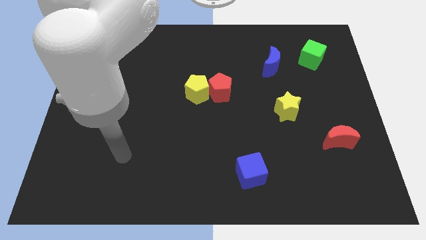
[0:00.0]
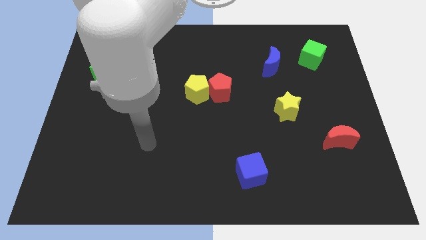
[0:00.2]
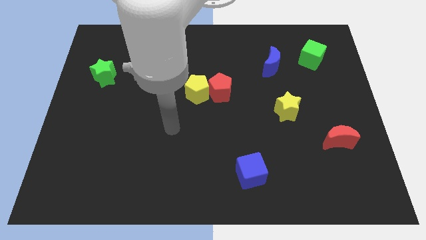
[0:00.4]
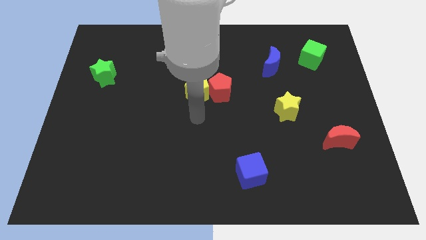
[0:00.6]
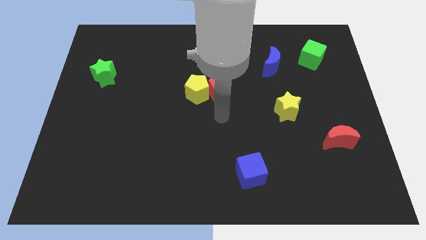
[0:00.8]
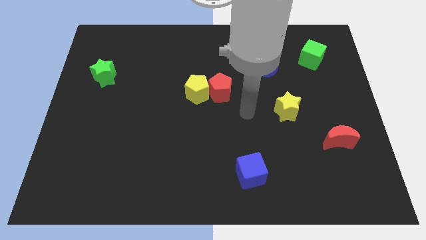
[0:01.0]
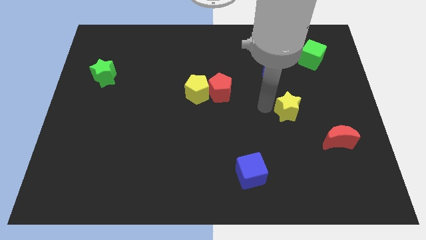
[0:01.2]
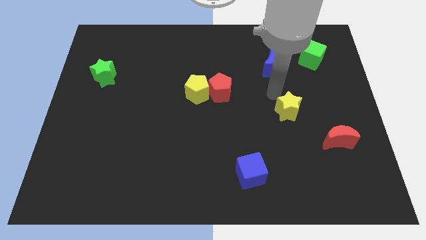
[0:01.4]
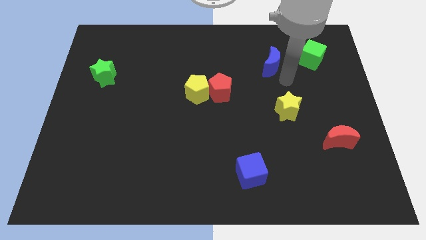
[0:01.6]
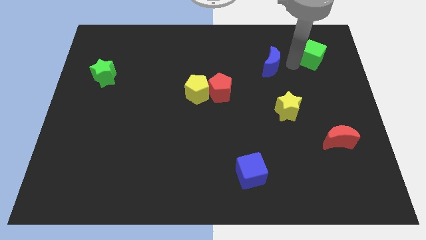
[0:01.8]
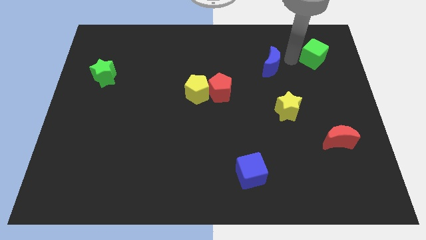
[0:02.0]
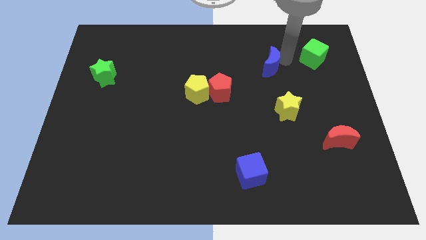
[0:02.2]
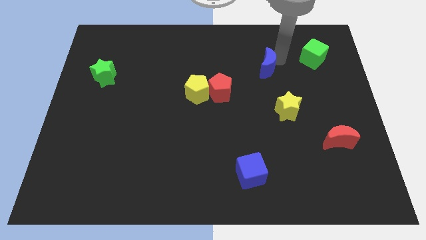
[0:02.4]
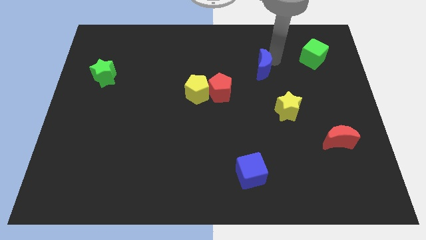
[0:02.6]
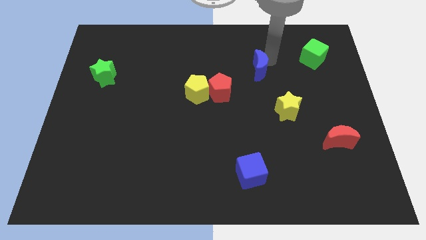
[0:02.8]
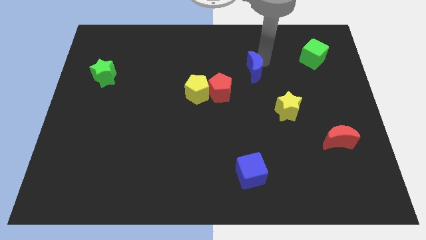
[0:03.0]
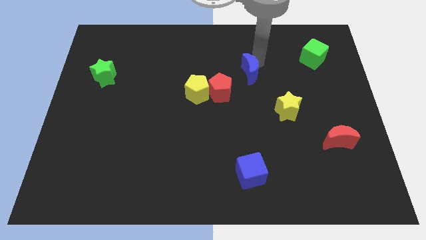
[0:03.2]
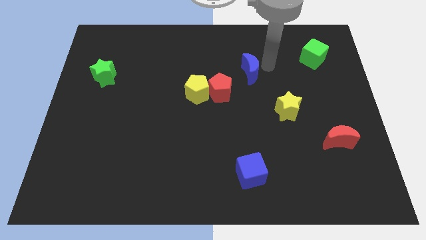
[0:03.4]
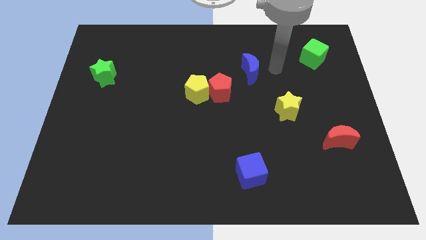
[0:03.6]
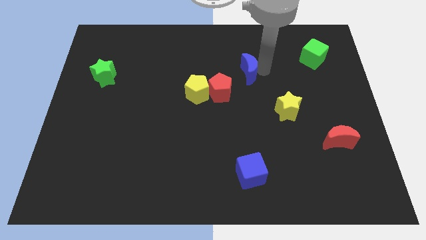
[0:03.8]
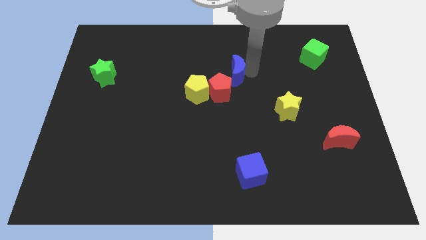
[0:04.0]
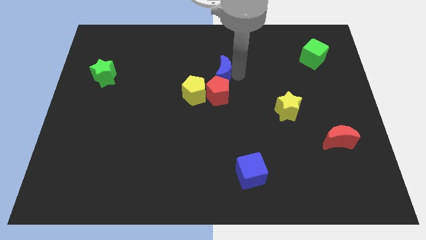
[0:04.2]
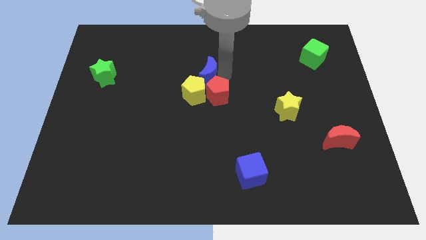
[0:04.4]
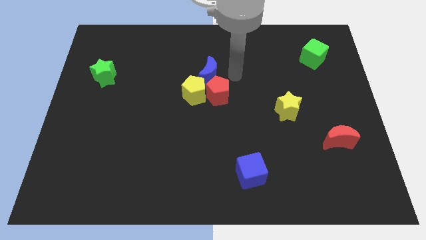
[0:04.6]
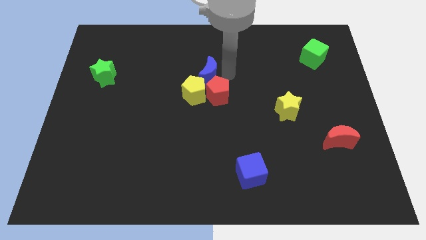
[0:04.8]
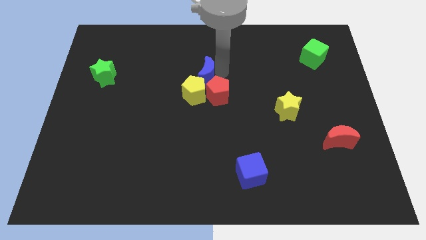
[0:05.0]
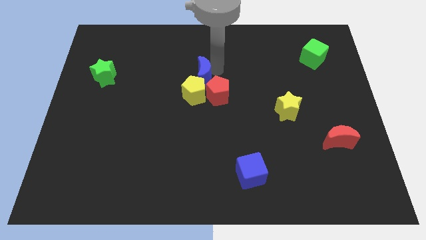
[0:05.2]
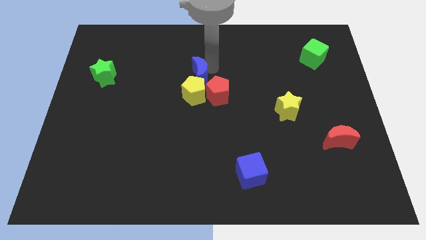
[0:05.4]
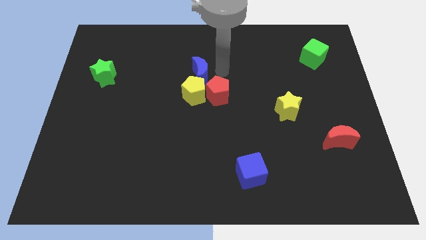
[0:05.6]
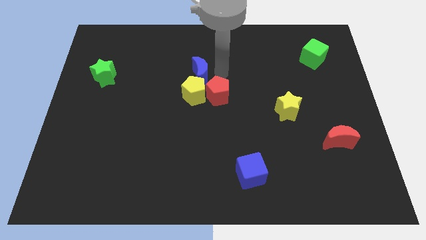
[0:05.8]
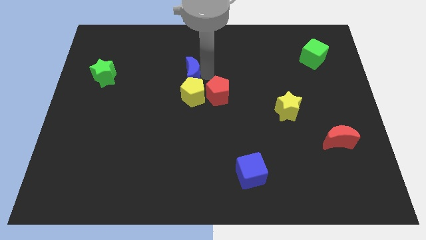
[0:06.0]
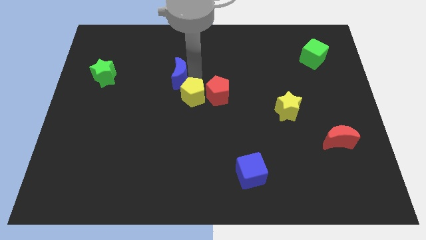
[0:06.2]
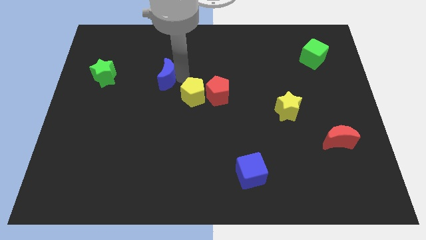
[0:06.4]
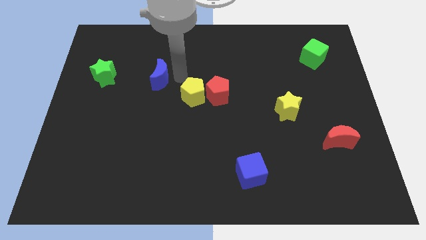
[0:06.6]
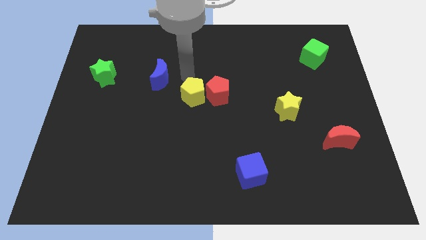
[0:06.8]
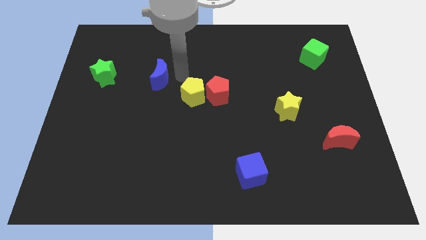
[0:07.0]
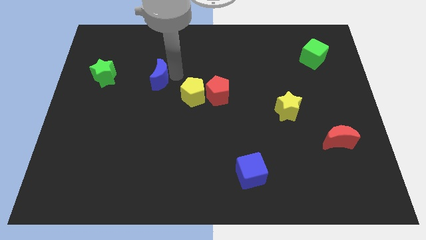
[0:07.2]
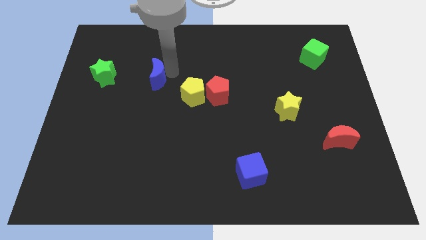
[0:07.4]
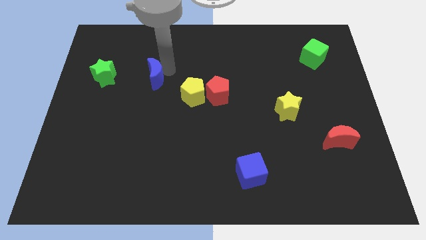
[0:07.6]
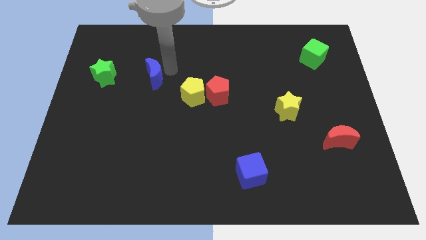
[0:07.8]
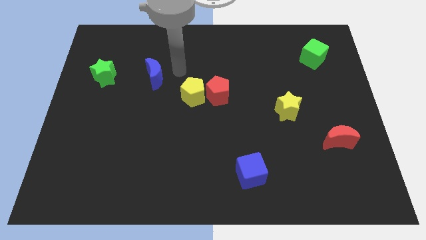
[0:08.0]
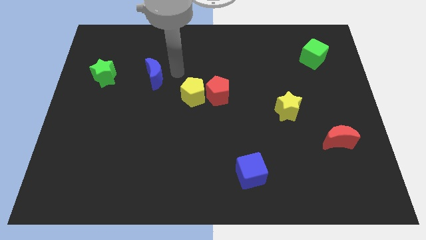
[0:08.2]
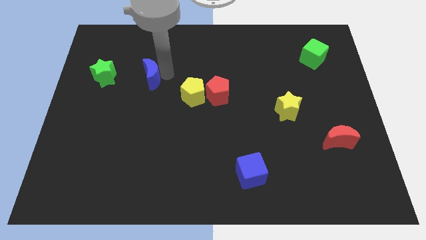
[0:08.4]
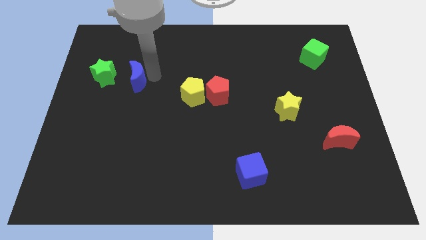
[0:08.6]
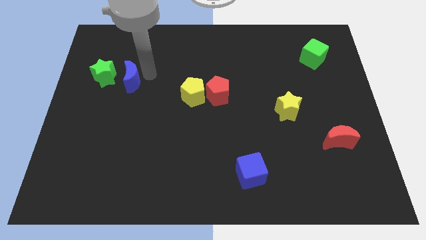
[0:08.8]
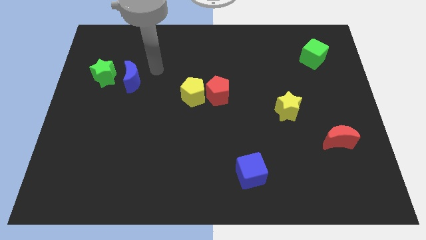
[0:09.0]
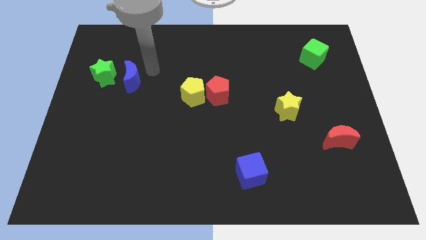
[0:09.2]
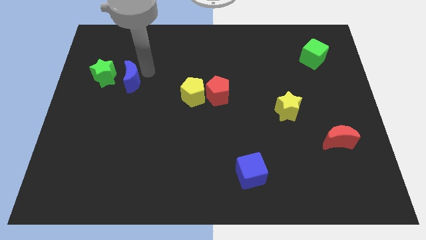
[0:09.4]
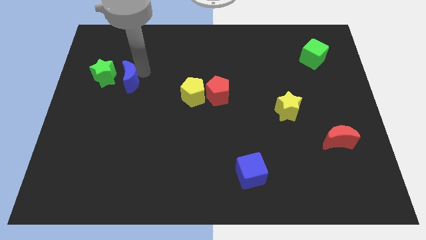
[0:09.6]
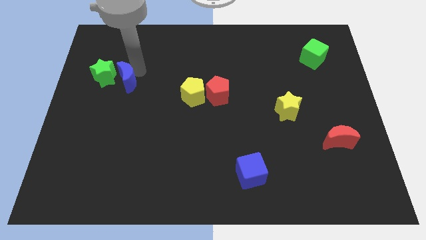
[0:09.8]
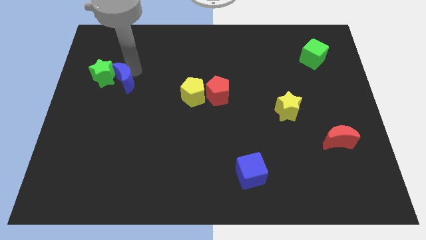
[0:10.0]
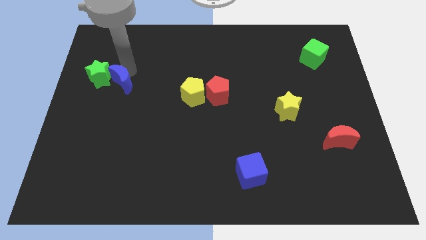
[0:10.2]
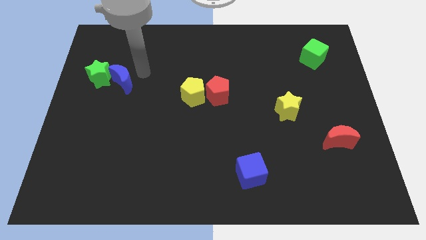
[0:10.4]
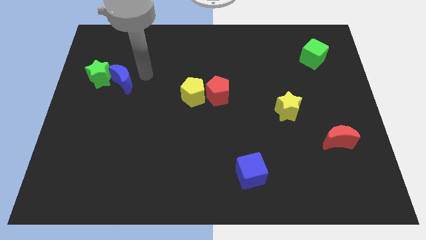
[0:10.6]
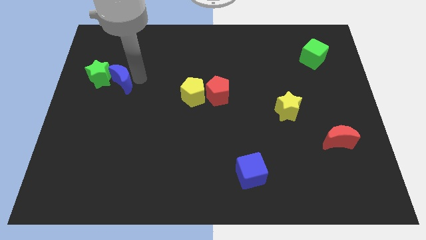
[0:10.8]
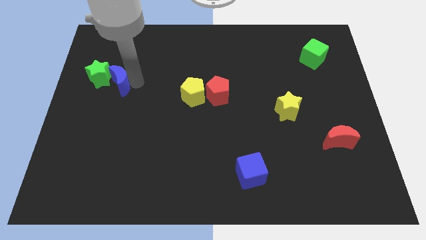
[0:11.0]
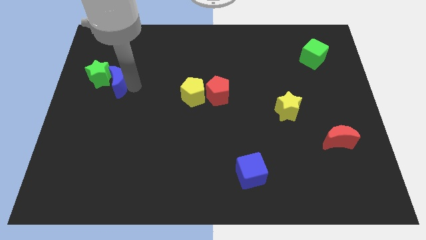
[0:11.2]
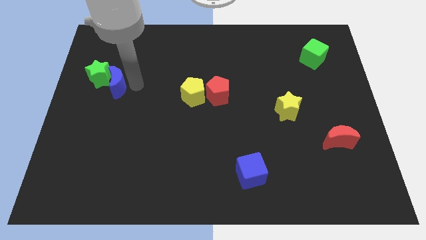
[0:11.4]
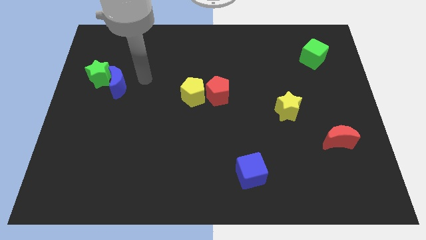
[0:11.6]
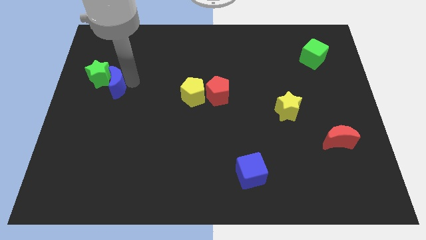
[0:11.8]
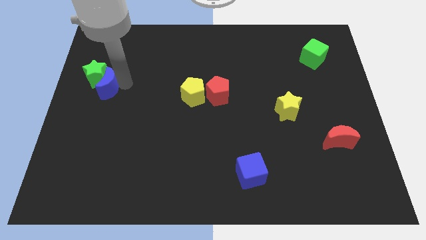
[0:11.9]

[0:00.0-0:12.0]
move the blue moon to the center left

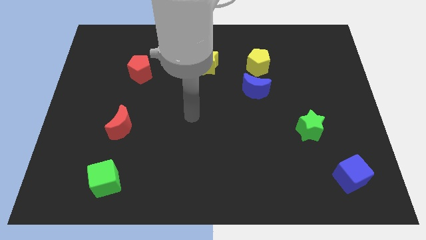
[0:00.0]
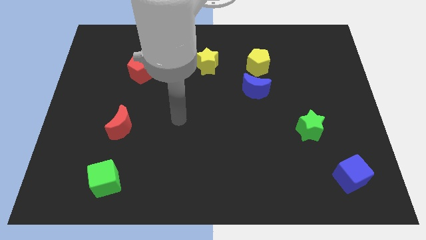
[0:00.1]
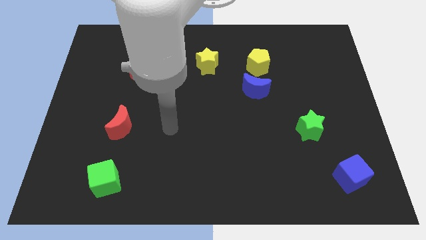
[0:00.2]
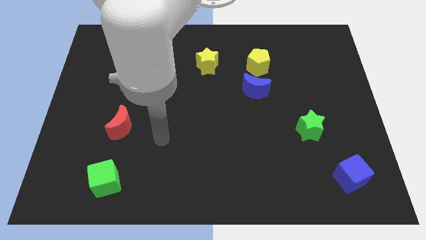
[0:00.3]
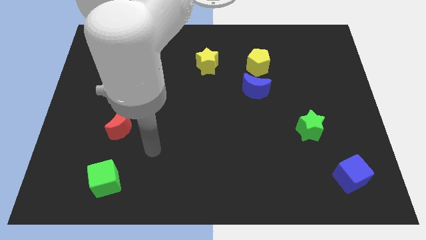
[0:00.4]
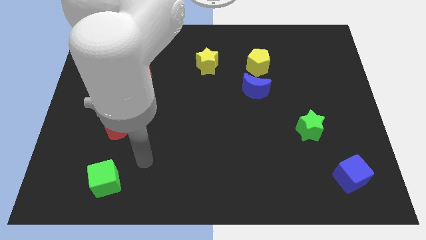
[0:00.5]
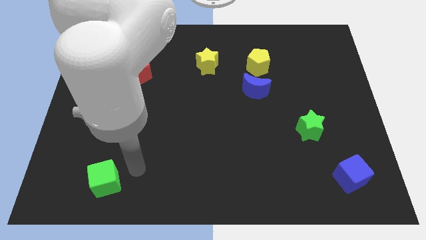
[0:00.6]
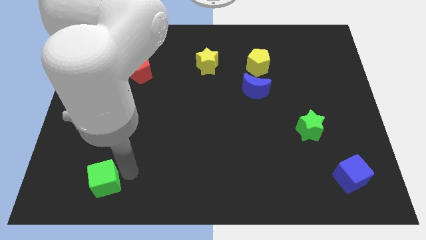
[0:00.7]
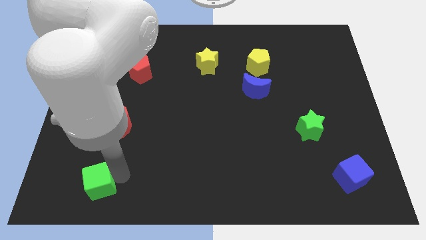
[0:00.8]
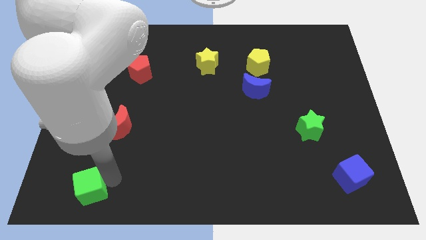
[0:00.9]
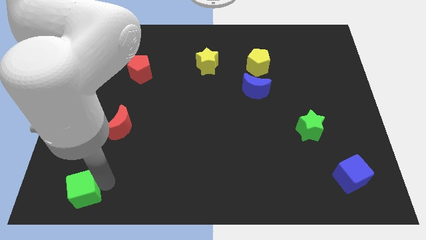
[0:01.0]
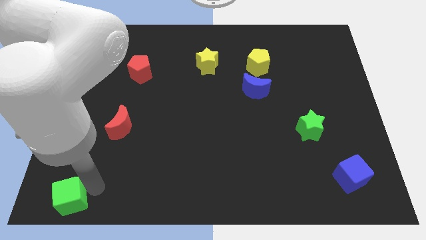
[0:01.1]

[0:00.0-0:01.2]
push the green cube to the bottom left
